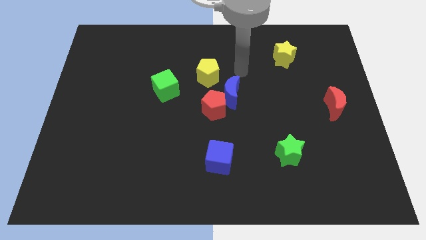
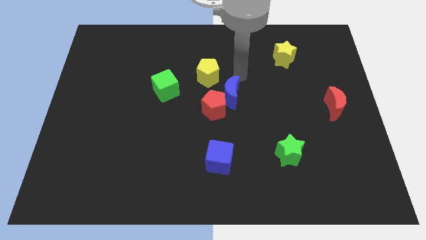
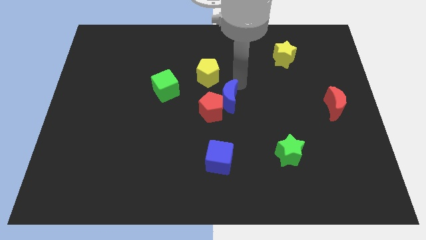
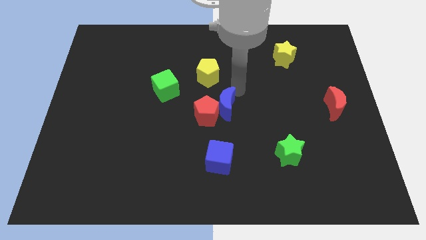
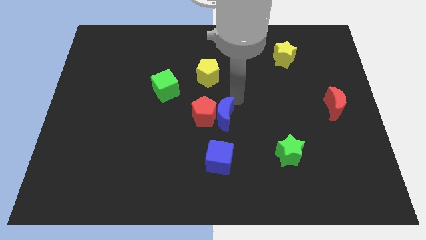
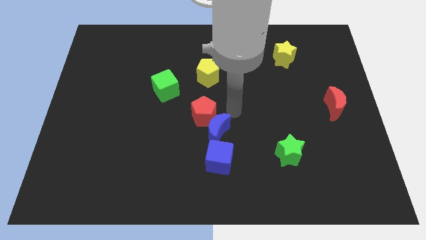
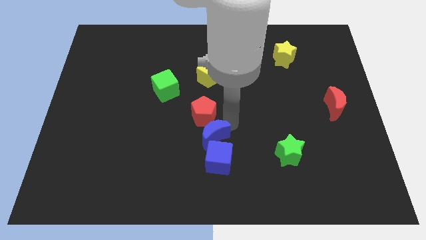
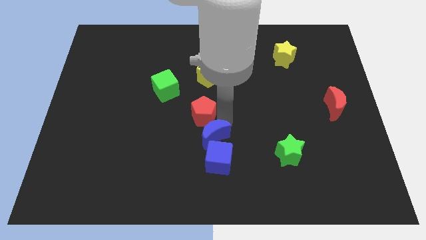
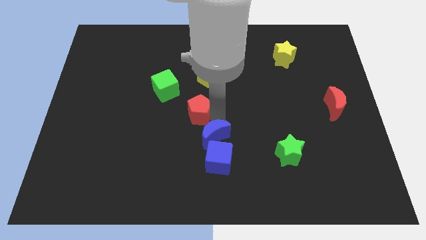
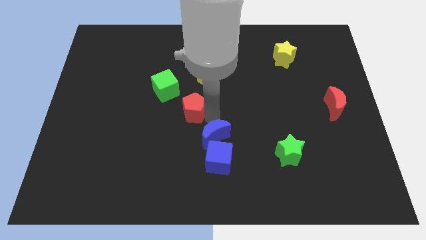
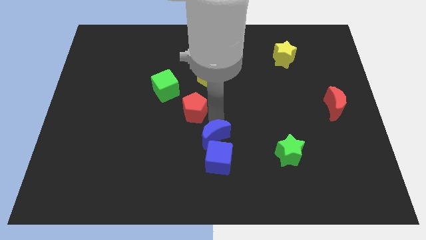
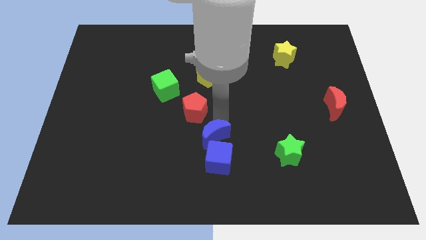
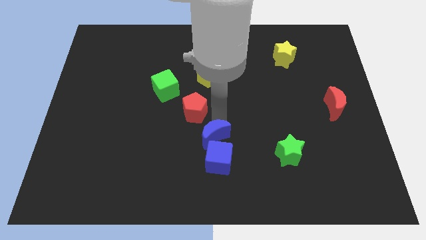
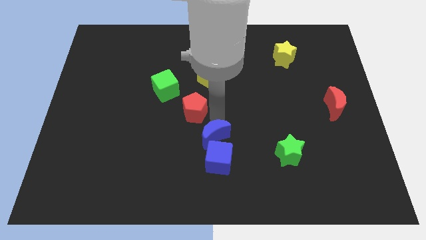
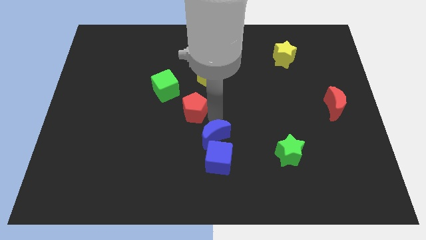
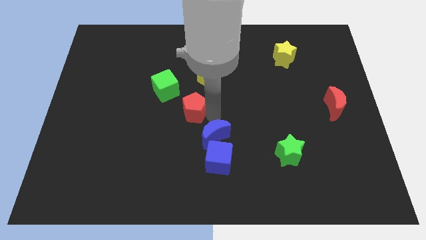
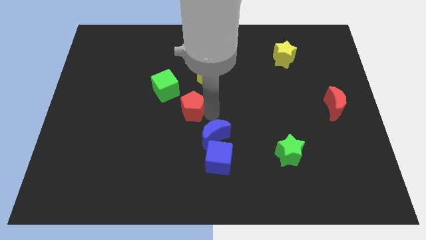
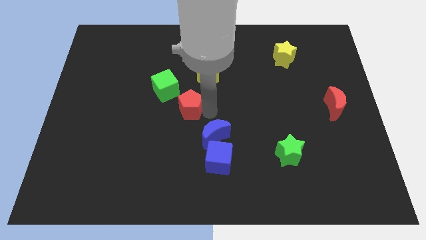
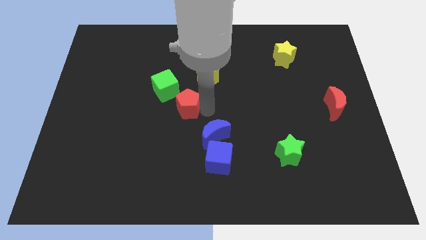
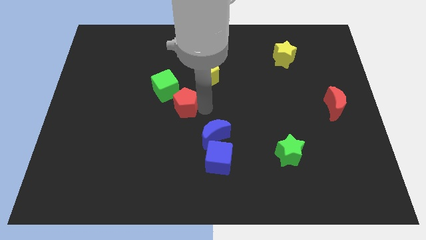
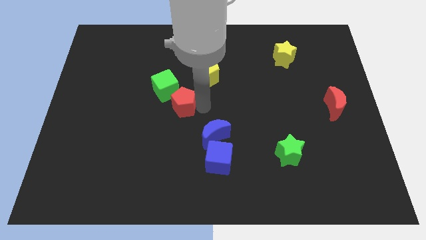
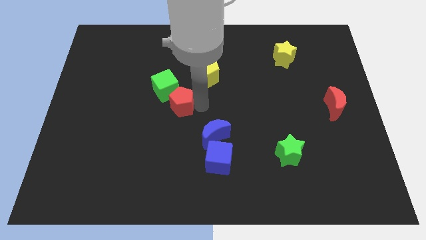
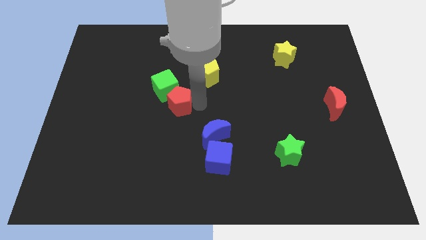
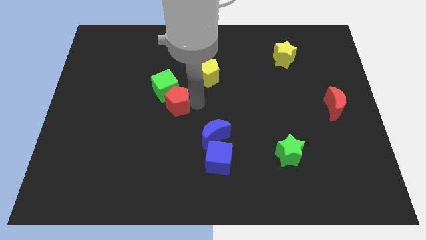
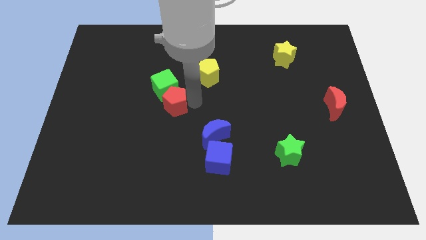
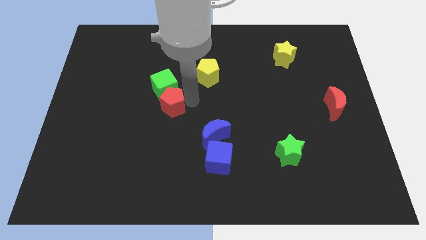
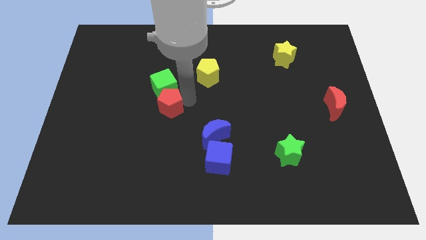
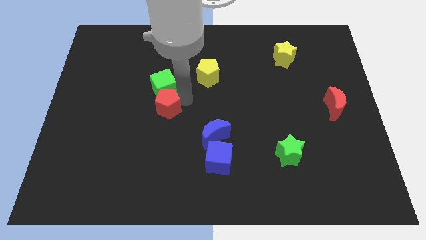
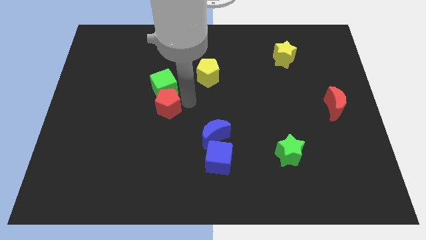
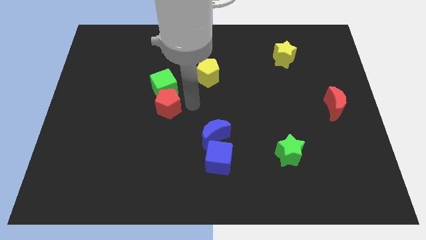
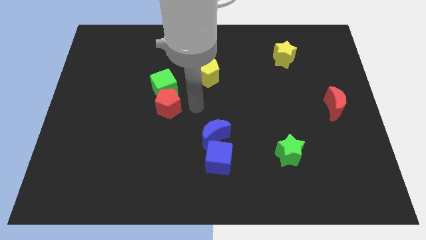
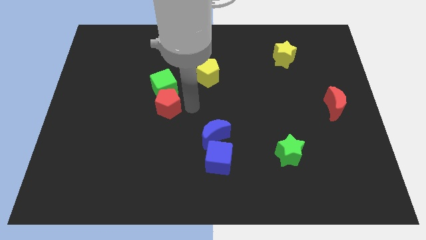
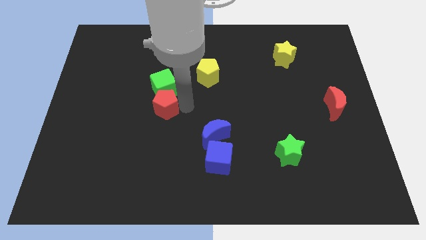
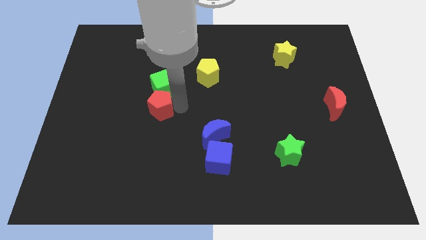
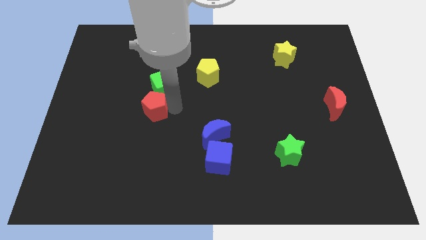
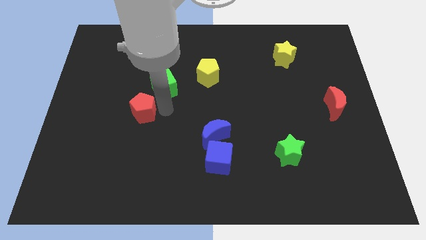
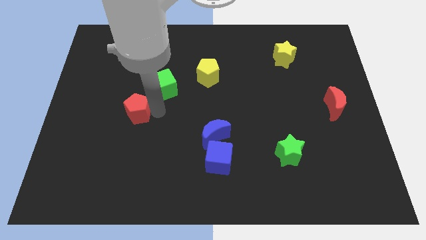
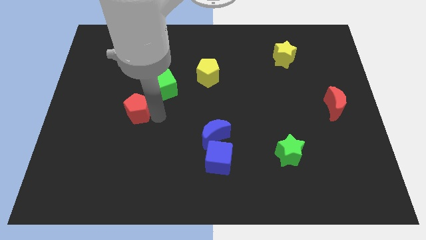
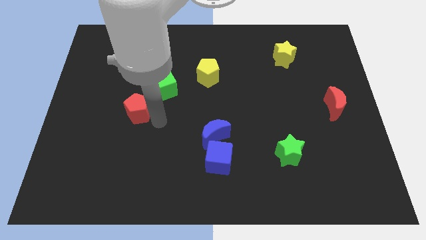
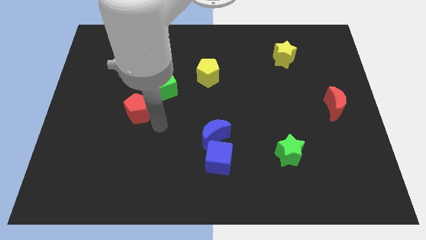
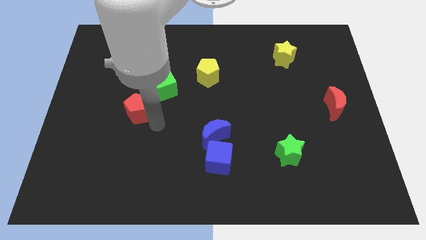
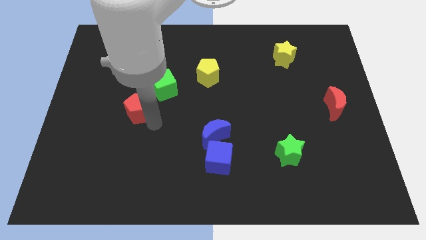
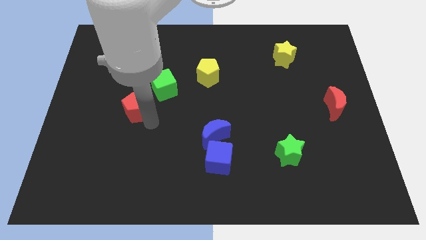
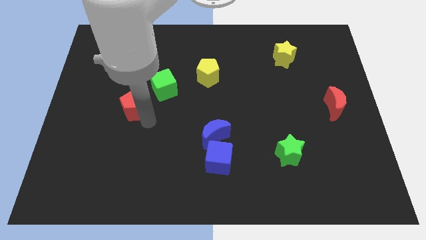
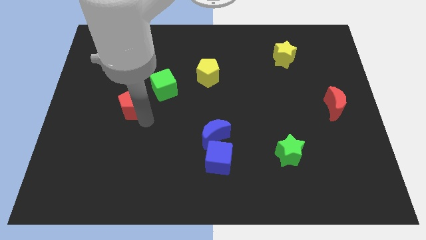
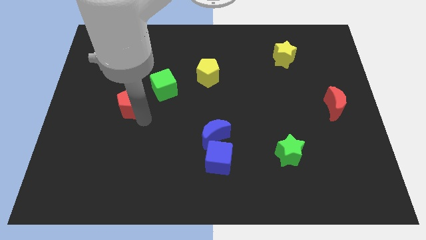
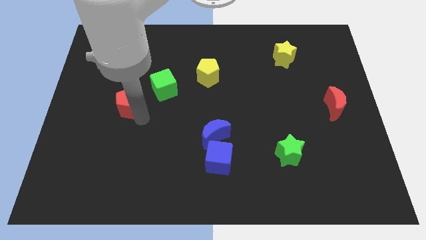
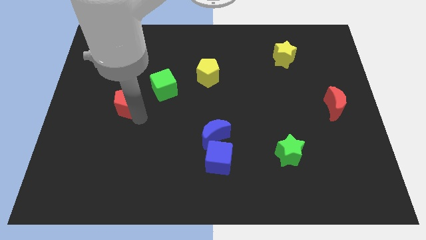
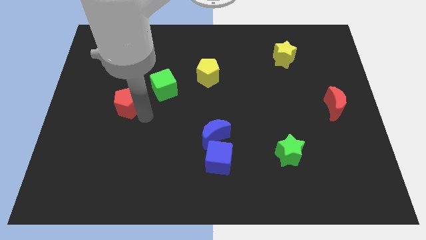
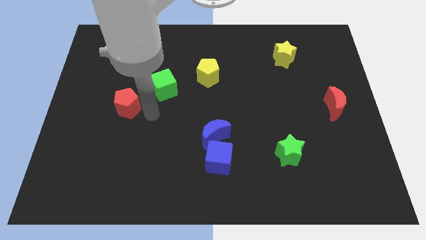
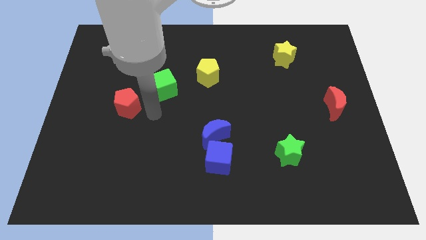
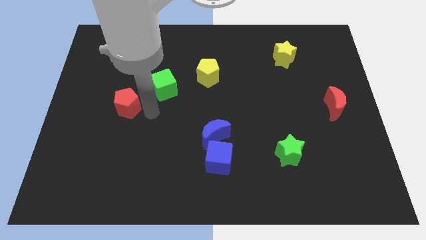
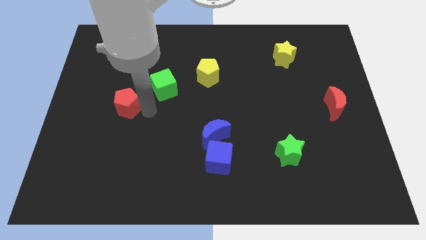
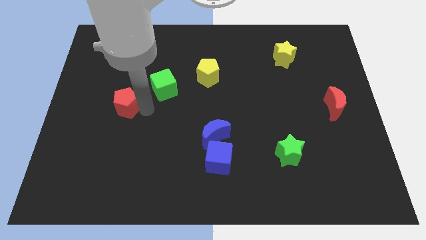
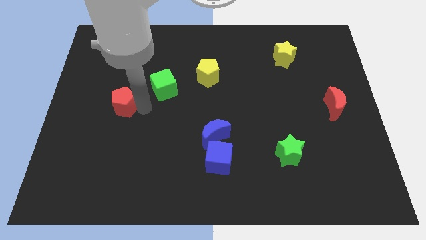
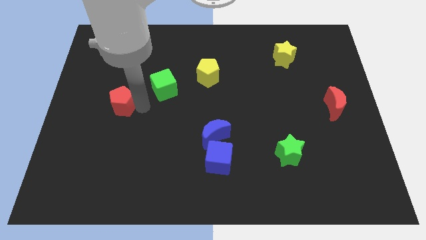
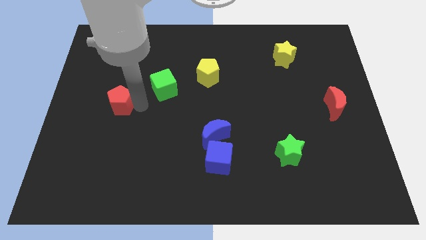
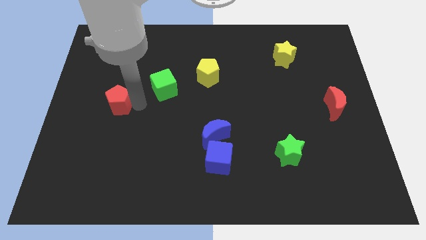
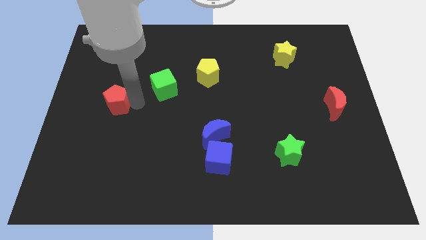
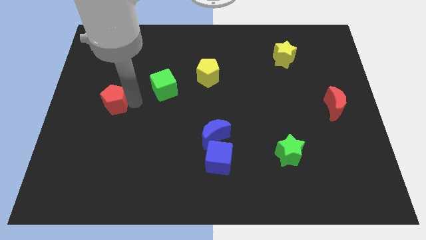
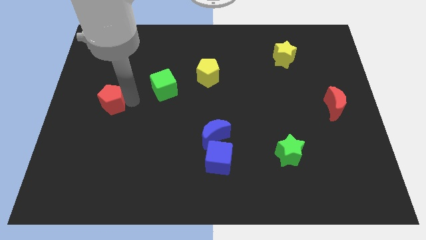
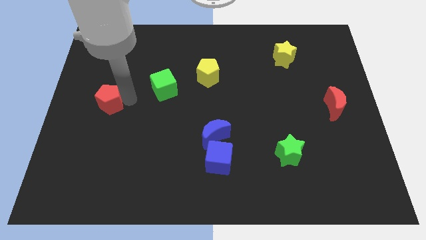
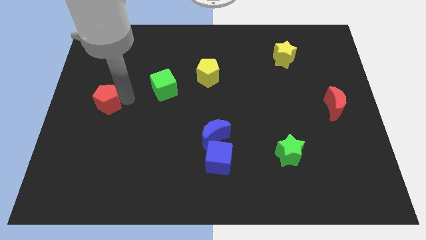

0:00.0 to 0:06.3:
move the red pentagon to the left side of the board
